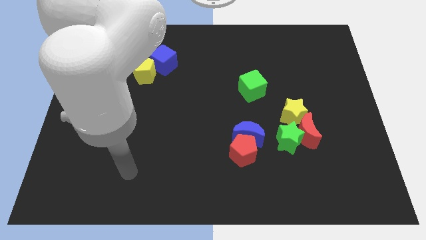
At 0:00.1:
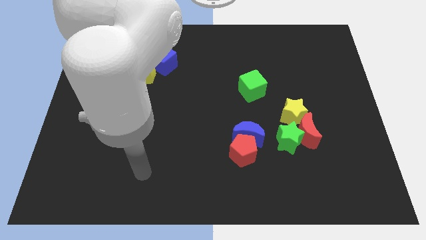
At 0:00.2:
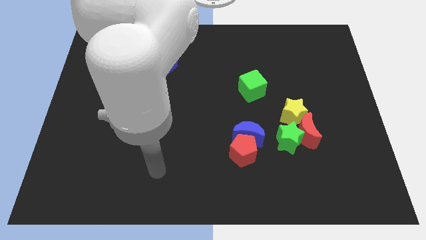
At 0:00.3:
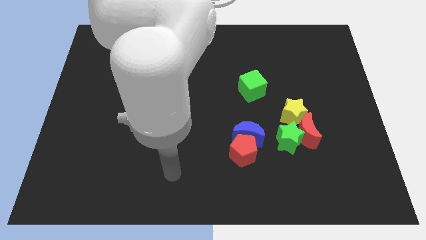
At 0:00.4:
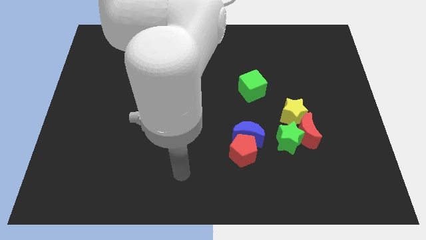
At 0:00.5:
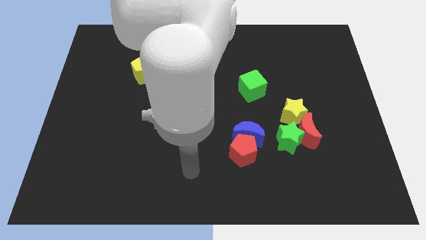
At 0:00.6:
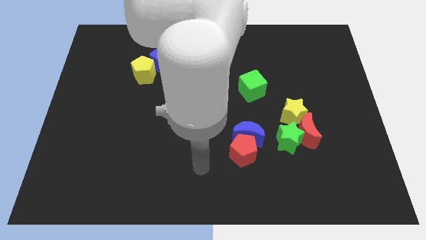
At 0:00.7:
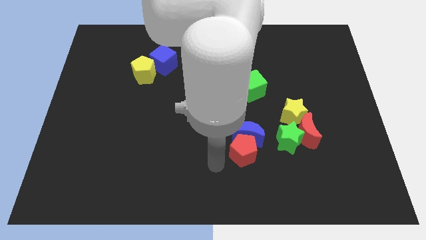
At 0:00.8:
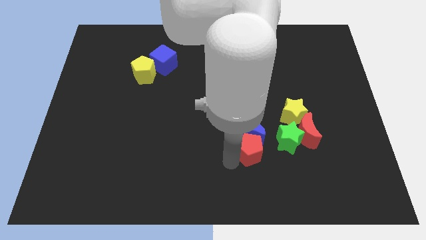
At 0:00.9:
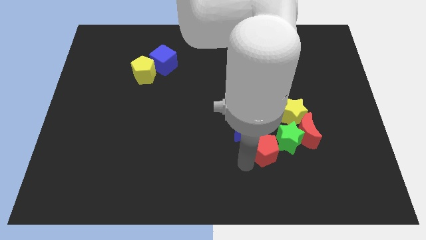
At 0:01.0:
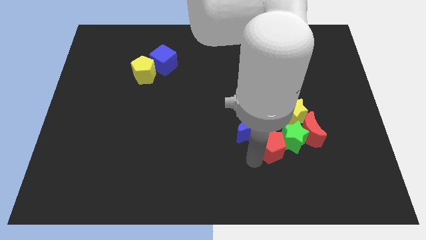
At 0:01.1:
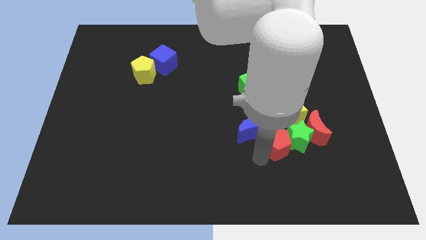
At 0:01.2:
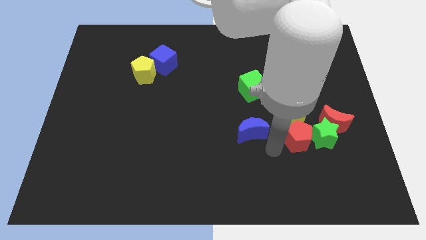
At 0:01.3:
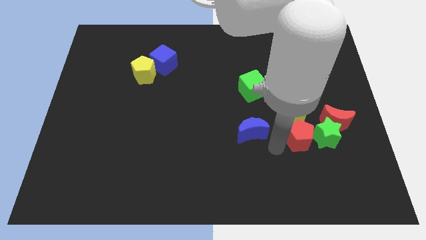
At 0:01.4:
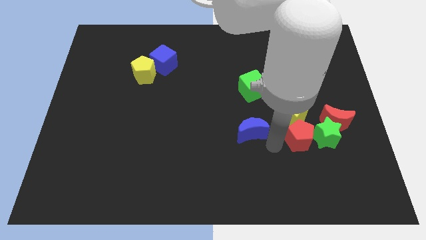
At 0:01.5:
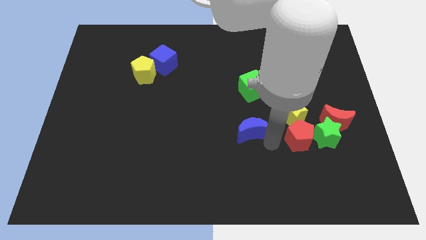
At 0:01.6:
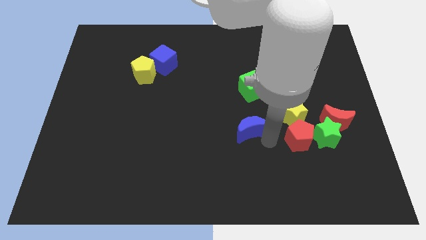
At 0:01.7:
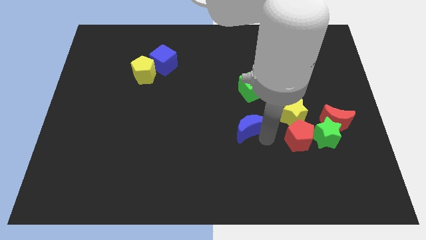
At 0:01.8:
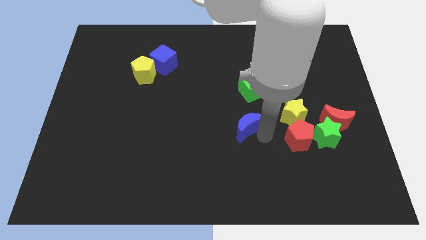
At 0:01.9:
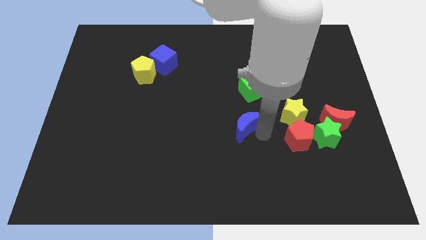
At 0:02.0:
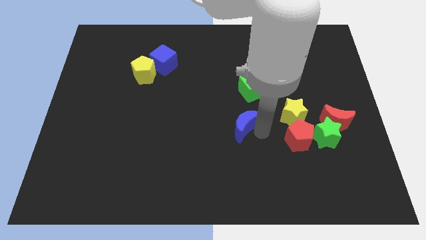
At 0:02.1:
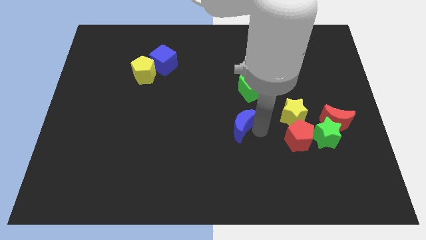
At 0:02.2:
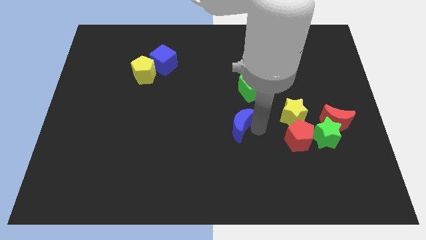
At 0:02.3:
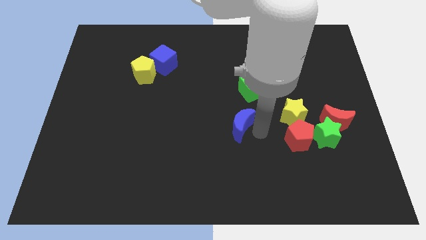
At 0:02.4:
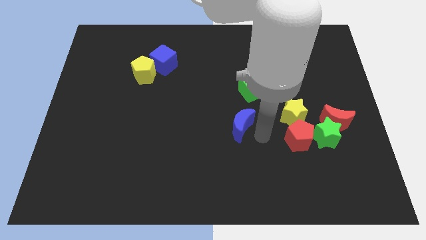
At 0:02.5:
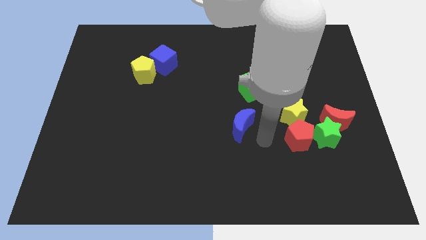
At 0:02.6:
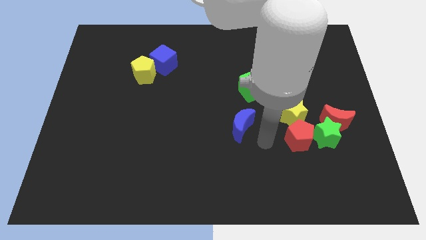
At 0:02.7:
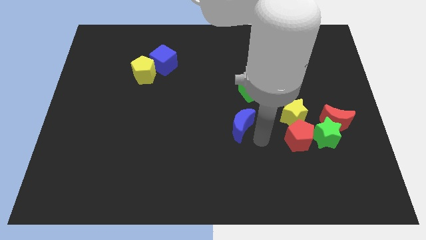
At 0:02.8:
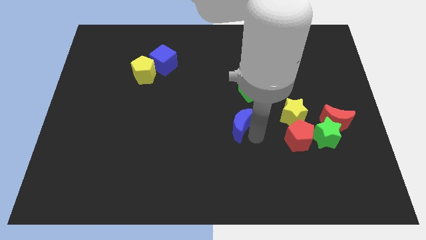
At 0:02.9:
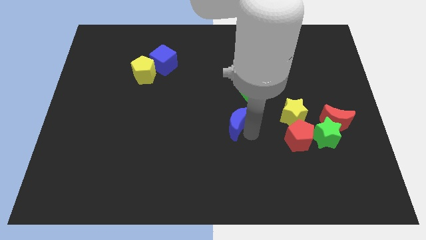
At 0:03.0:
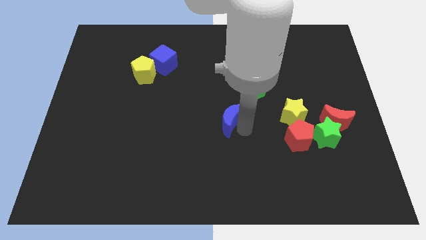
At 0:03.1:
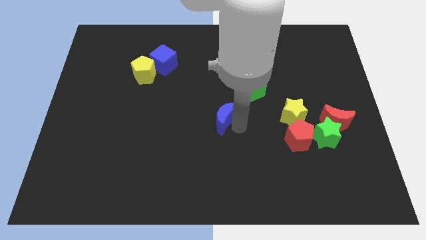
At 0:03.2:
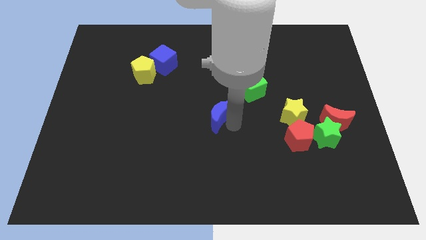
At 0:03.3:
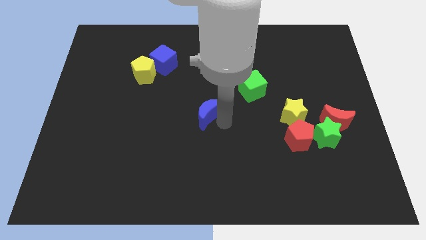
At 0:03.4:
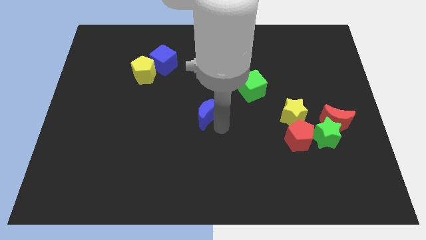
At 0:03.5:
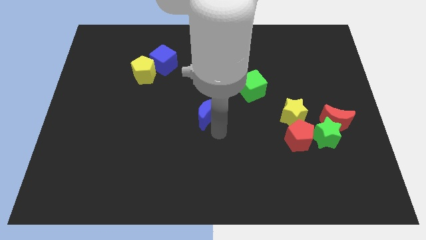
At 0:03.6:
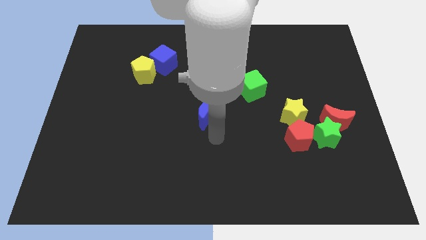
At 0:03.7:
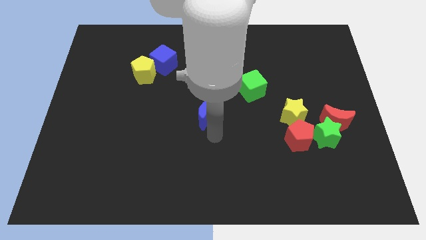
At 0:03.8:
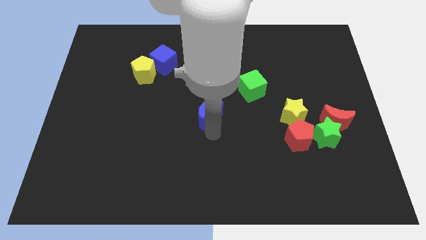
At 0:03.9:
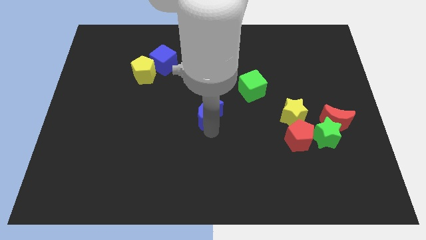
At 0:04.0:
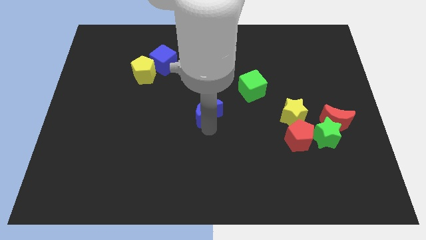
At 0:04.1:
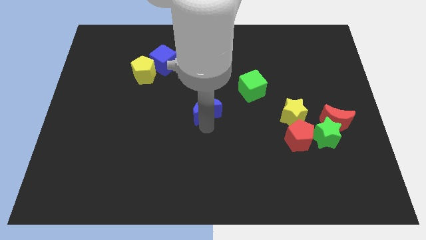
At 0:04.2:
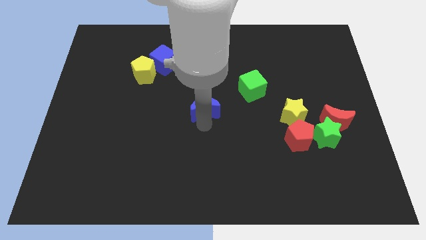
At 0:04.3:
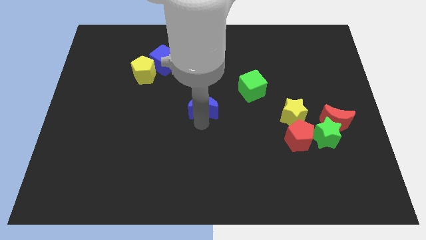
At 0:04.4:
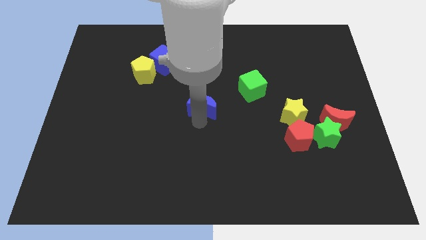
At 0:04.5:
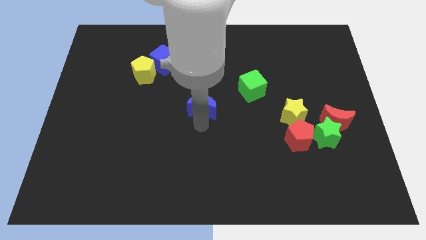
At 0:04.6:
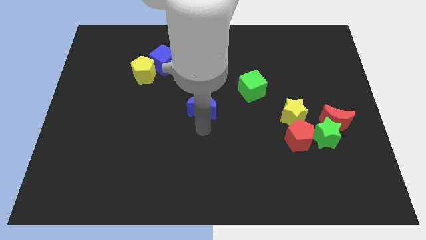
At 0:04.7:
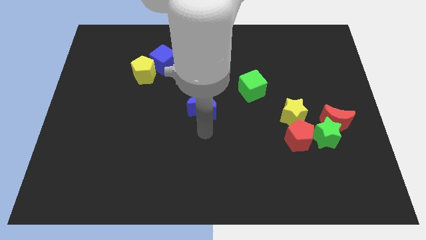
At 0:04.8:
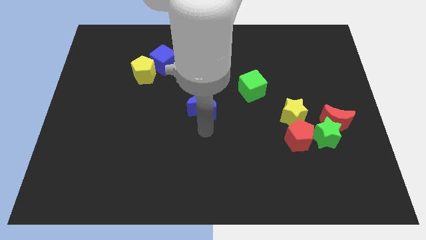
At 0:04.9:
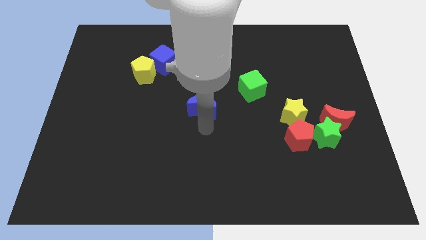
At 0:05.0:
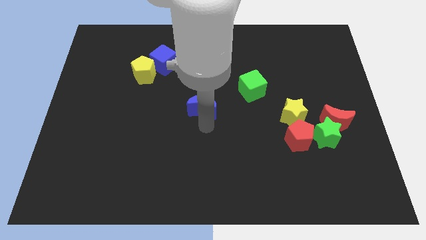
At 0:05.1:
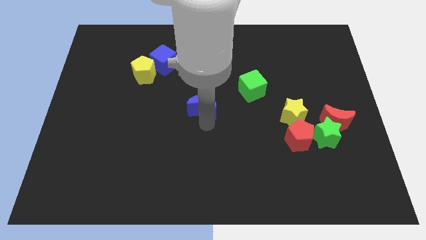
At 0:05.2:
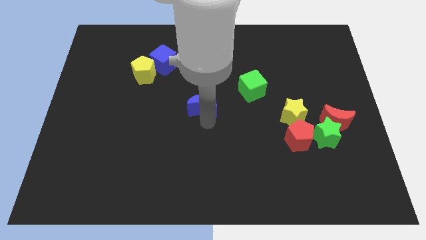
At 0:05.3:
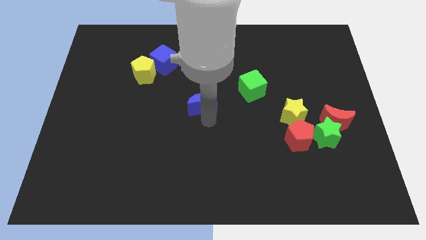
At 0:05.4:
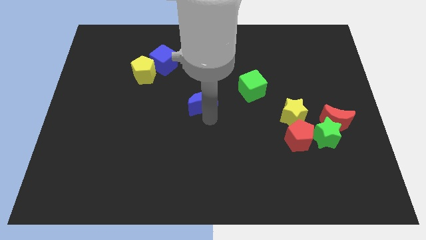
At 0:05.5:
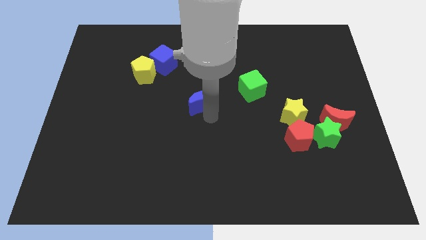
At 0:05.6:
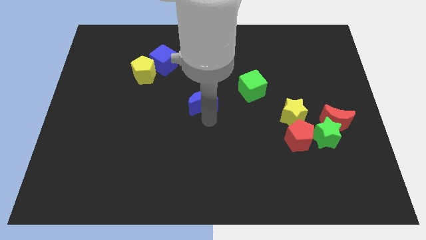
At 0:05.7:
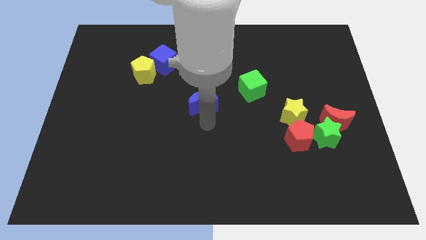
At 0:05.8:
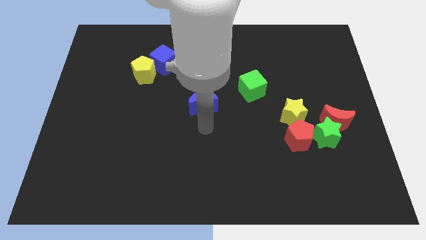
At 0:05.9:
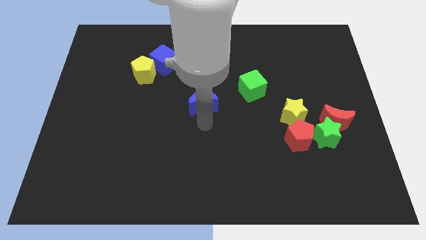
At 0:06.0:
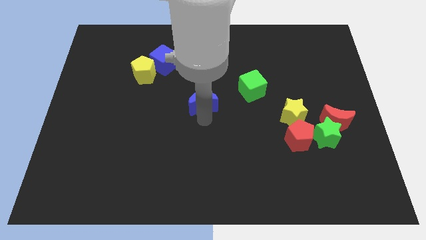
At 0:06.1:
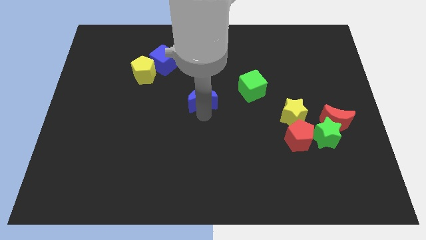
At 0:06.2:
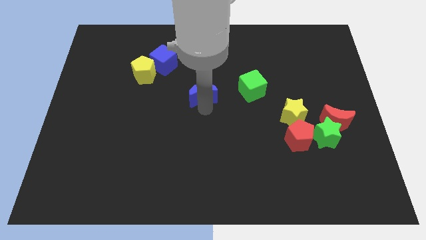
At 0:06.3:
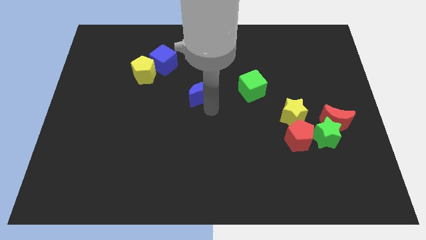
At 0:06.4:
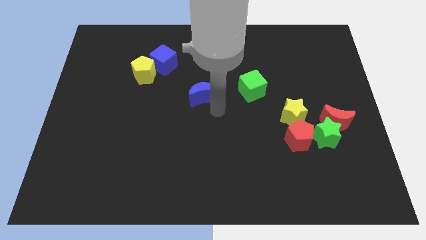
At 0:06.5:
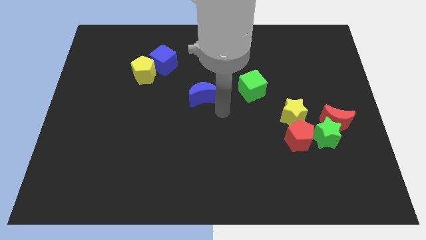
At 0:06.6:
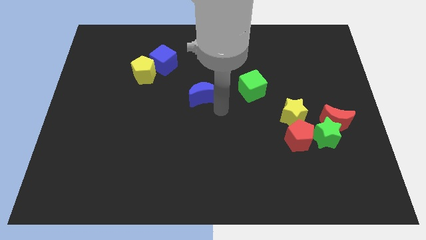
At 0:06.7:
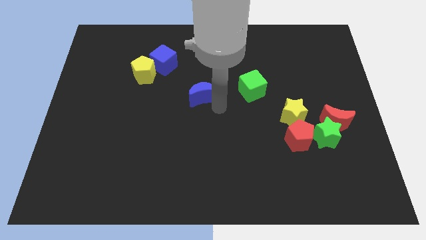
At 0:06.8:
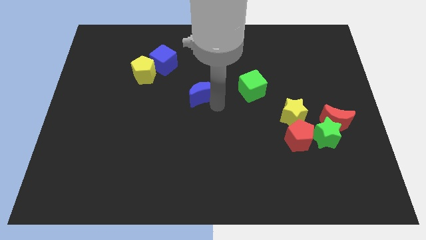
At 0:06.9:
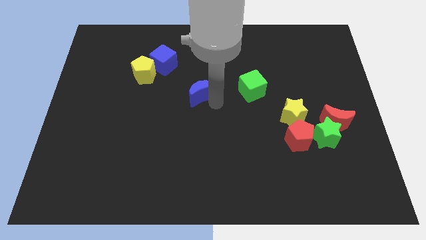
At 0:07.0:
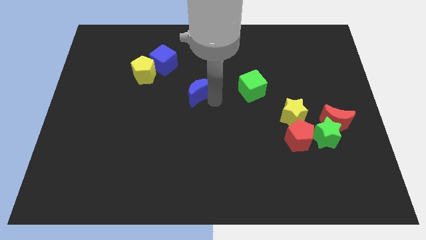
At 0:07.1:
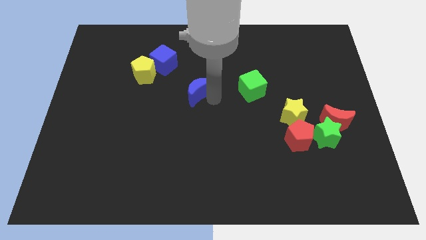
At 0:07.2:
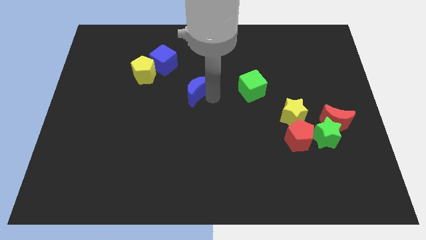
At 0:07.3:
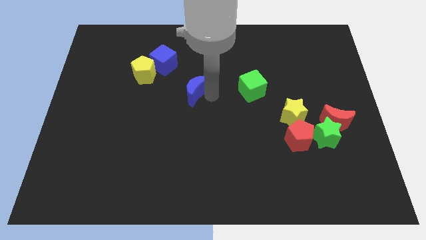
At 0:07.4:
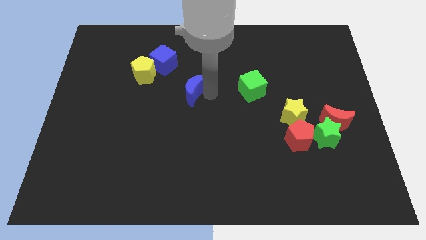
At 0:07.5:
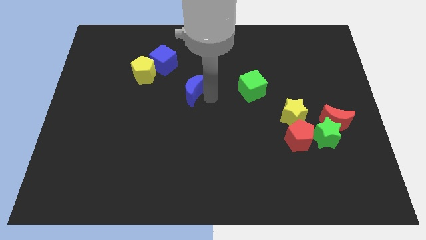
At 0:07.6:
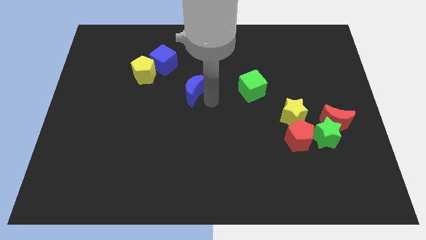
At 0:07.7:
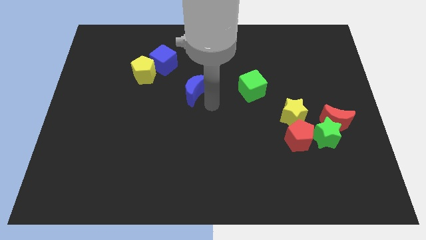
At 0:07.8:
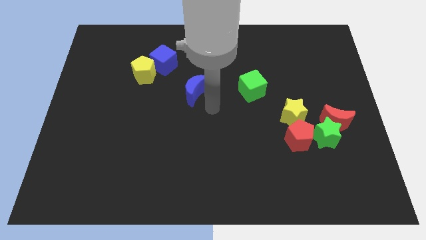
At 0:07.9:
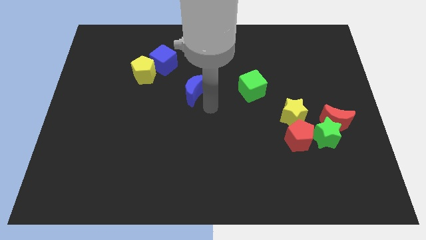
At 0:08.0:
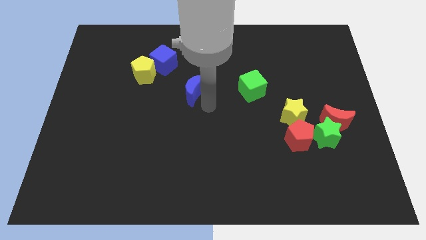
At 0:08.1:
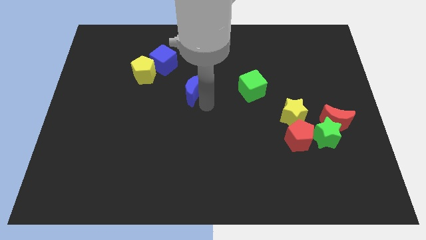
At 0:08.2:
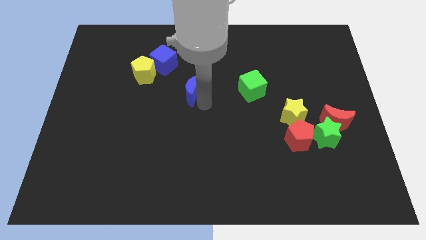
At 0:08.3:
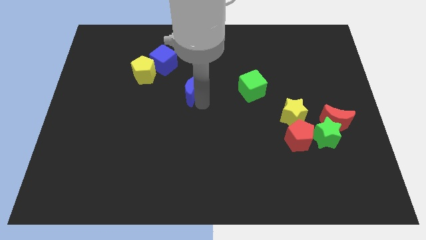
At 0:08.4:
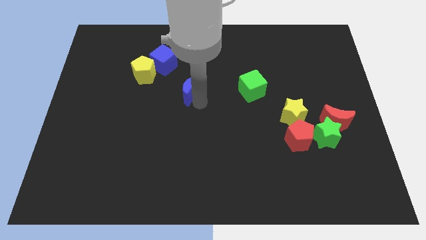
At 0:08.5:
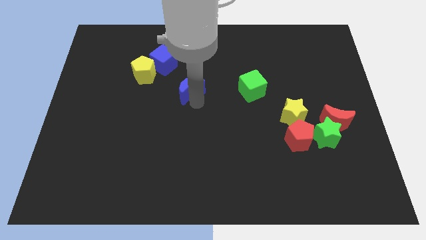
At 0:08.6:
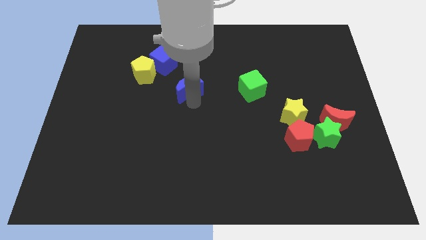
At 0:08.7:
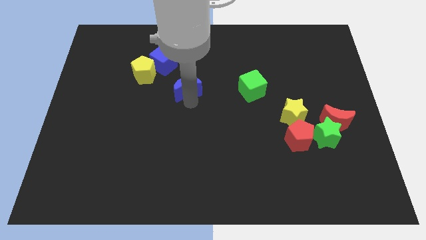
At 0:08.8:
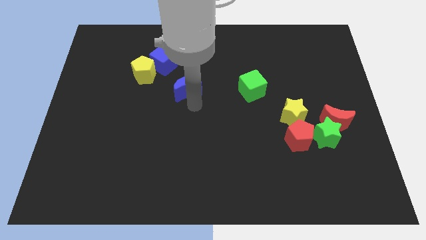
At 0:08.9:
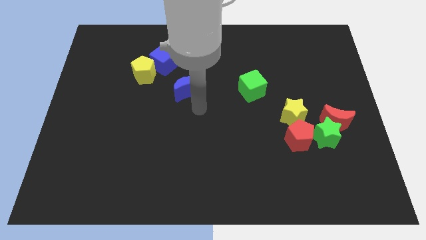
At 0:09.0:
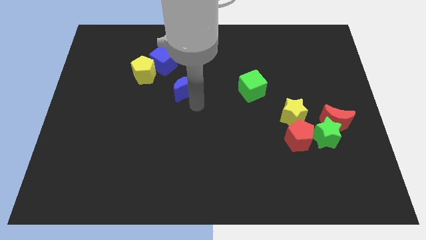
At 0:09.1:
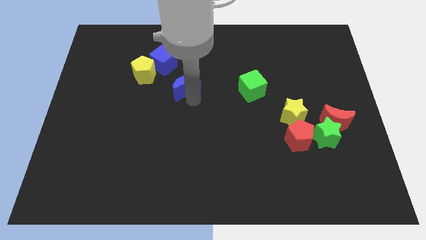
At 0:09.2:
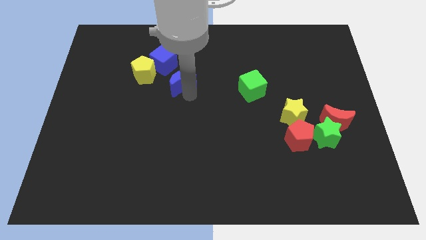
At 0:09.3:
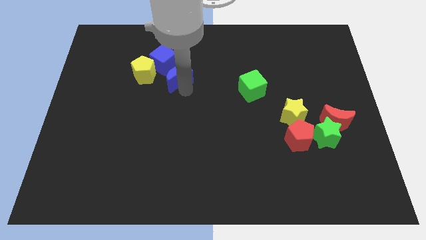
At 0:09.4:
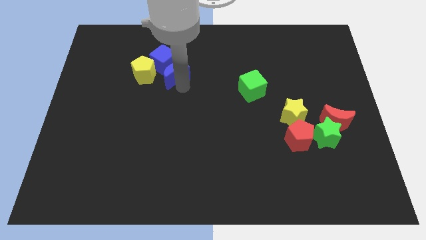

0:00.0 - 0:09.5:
put the blue moon close to the blue cube
